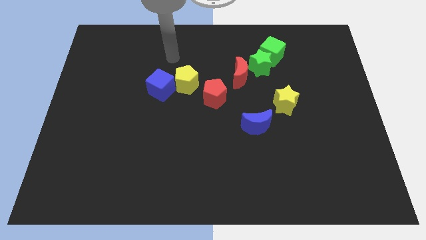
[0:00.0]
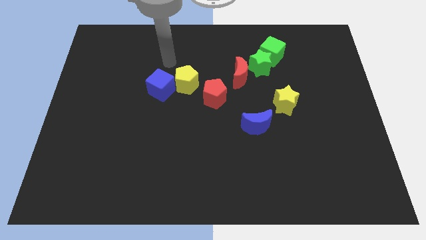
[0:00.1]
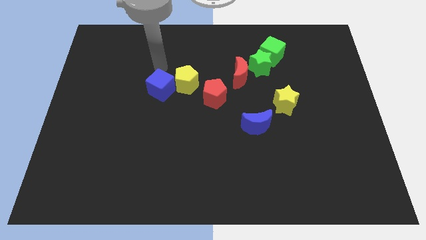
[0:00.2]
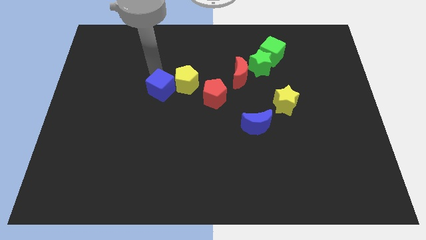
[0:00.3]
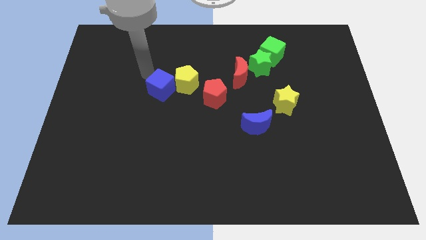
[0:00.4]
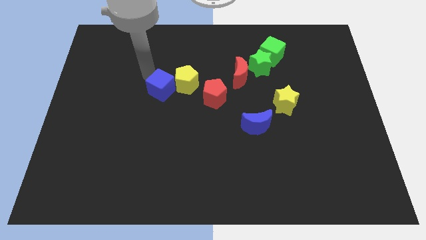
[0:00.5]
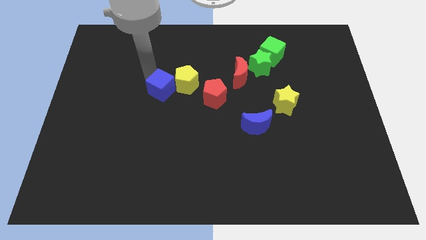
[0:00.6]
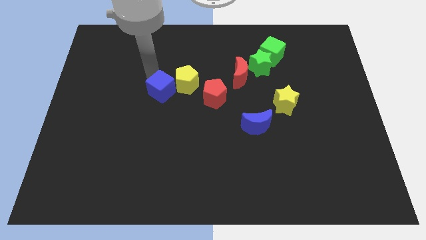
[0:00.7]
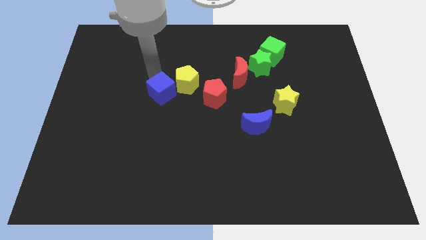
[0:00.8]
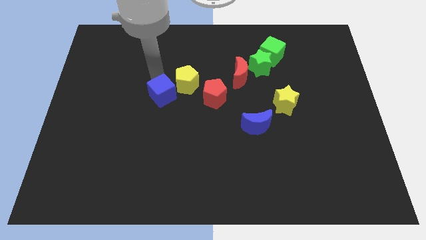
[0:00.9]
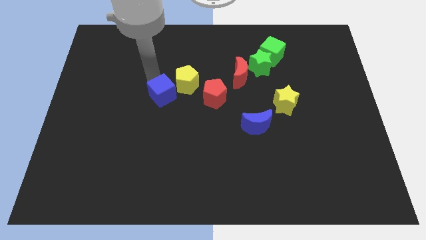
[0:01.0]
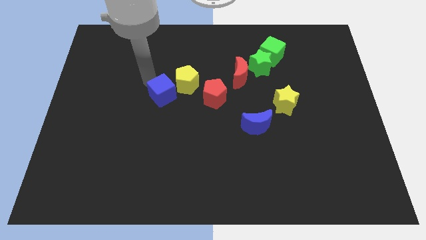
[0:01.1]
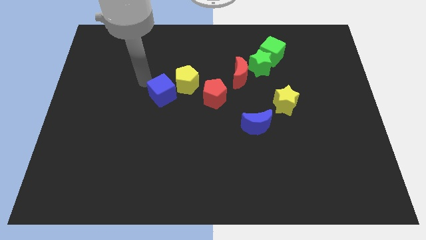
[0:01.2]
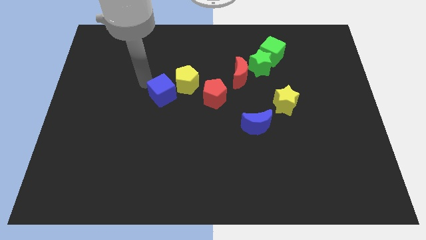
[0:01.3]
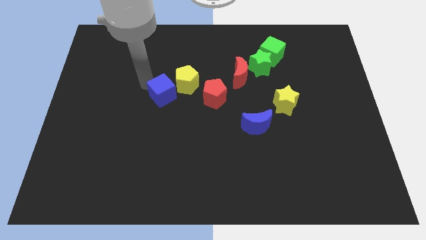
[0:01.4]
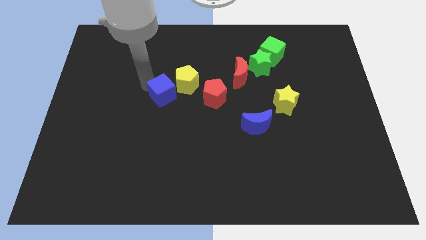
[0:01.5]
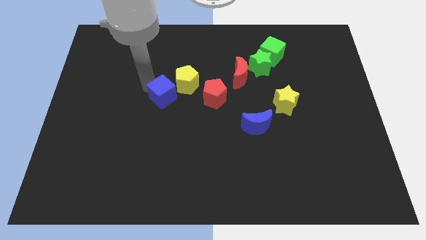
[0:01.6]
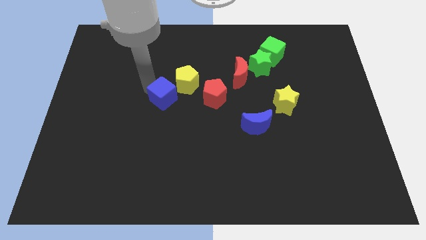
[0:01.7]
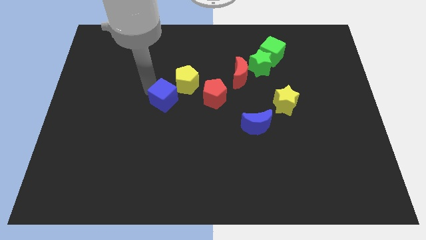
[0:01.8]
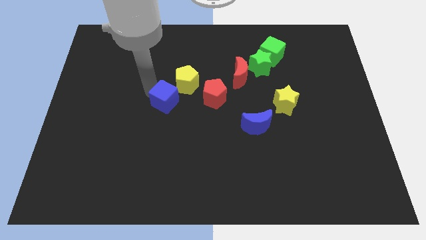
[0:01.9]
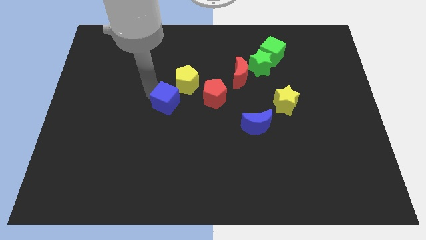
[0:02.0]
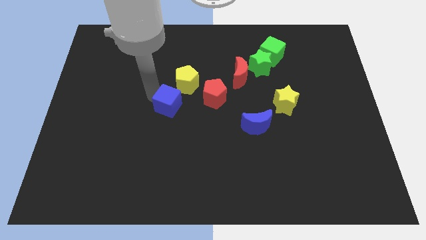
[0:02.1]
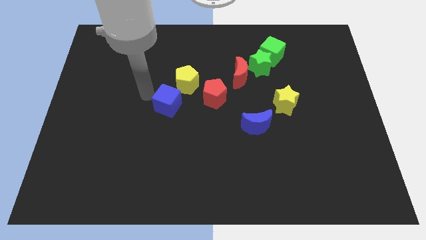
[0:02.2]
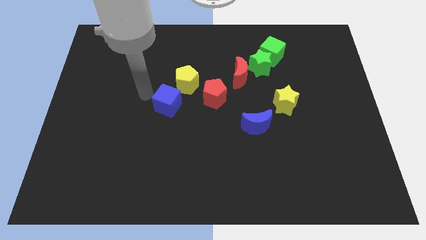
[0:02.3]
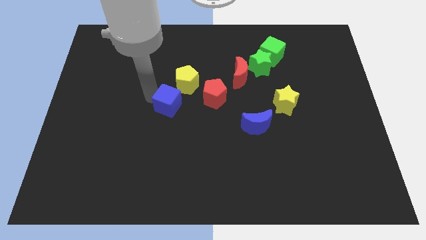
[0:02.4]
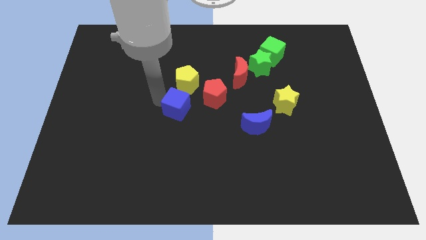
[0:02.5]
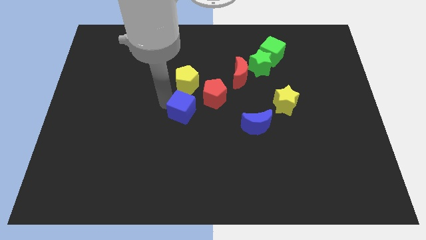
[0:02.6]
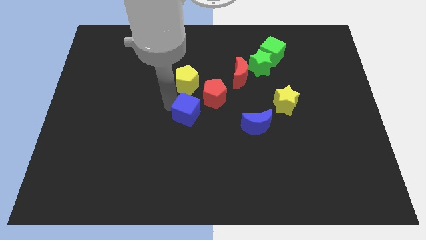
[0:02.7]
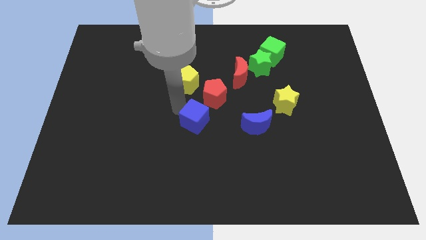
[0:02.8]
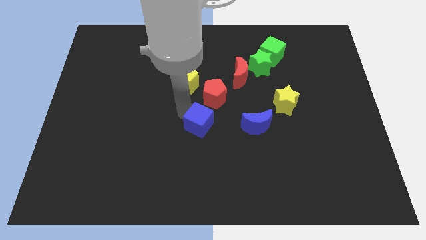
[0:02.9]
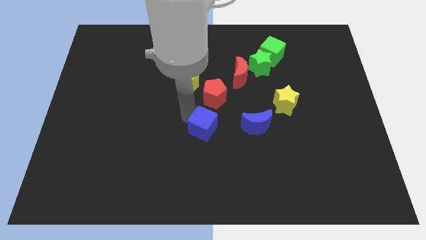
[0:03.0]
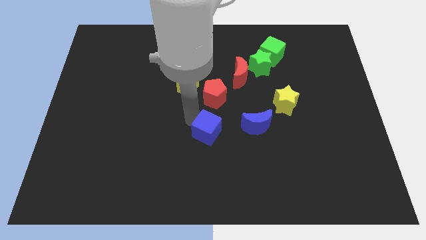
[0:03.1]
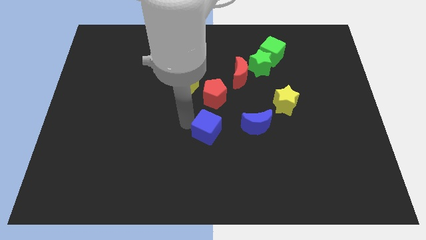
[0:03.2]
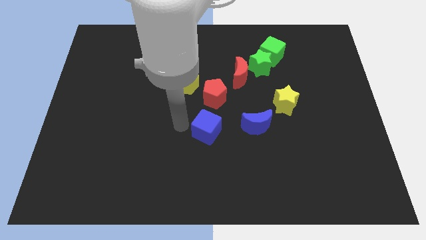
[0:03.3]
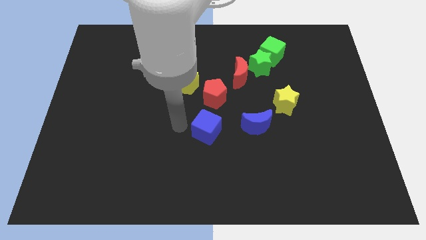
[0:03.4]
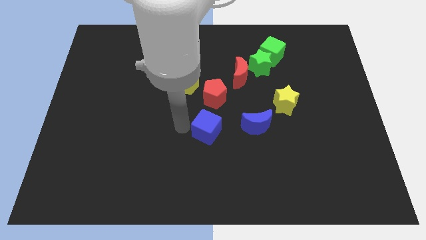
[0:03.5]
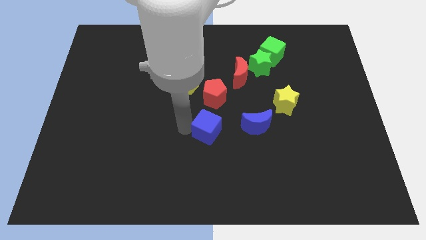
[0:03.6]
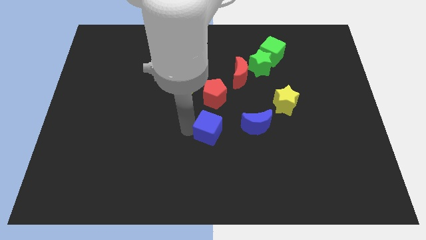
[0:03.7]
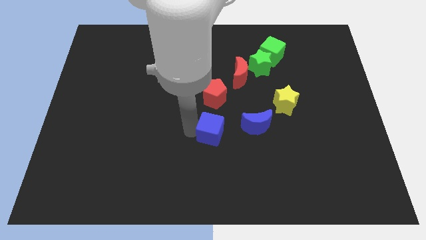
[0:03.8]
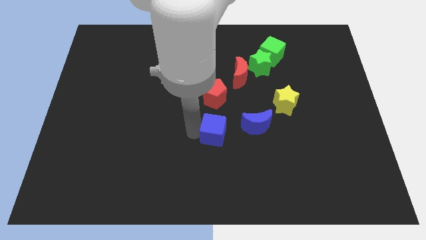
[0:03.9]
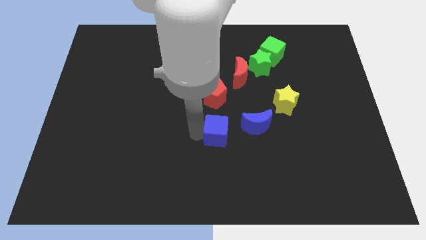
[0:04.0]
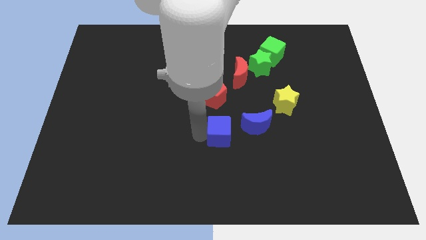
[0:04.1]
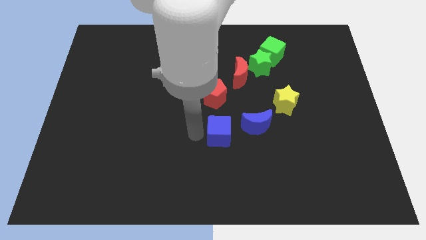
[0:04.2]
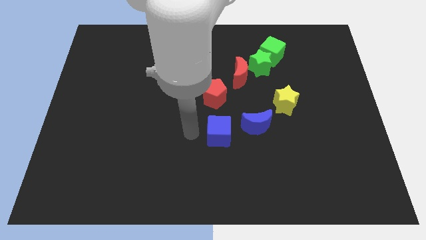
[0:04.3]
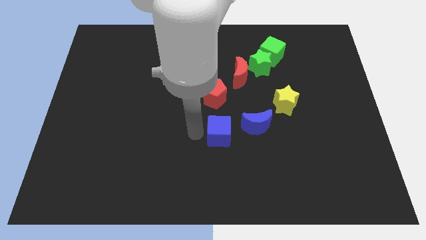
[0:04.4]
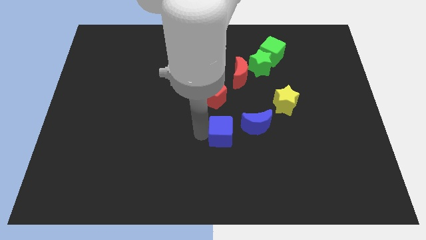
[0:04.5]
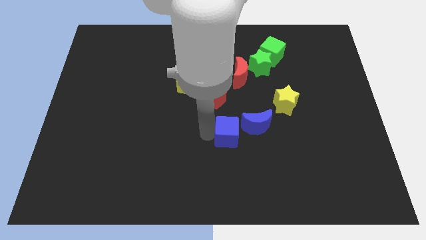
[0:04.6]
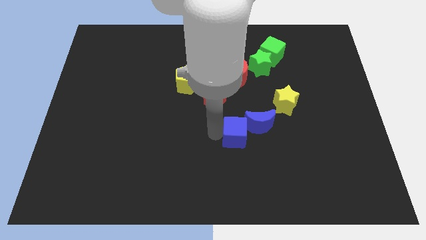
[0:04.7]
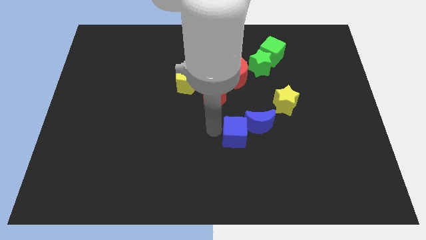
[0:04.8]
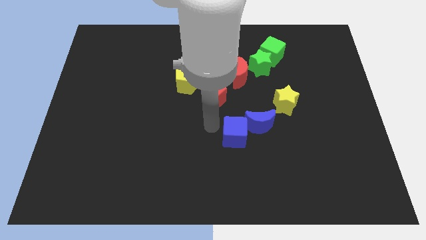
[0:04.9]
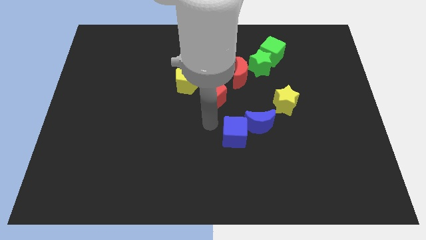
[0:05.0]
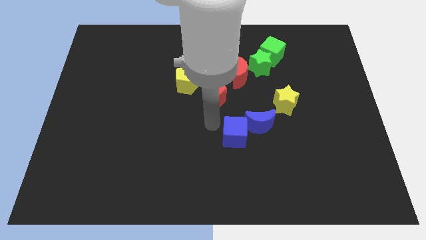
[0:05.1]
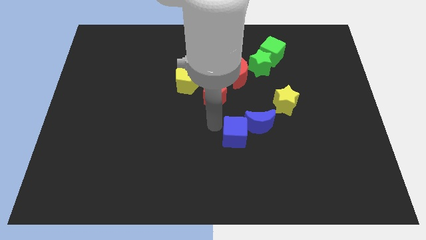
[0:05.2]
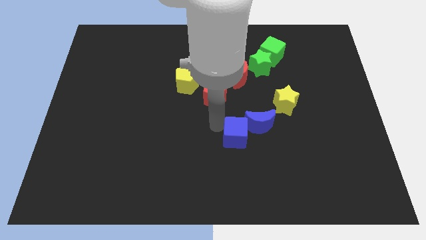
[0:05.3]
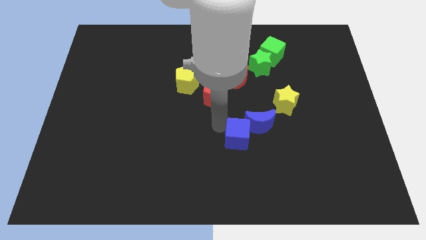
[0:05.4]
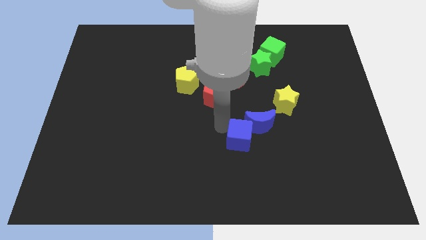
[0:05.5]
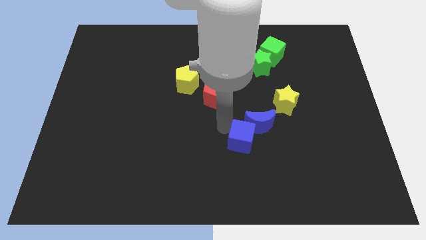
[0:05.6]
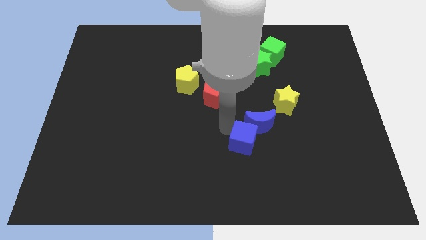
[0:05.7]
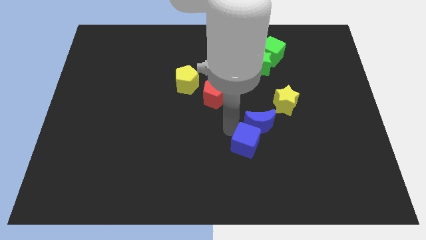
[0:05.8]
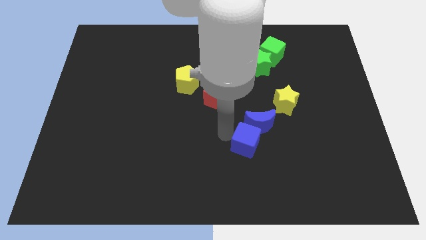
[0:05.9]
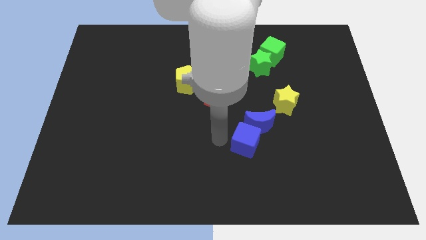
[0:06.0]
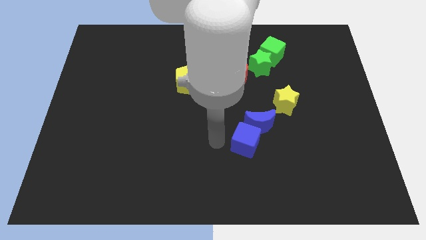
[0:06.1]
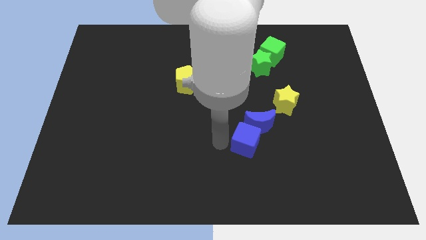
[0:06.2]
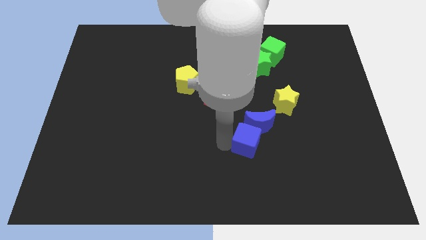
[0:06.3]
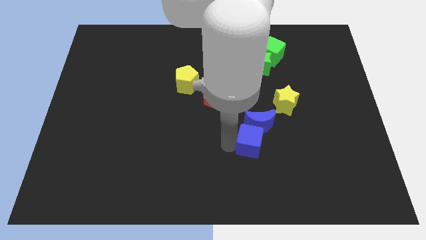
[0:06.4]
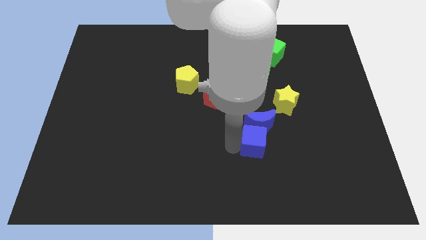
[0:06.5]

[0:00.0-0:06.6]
push the blue cube to the bottom right side of the blue moon

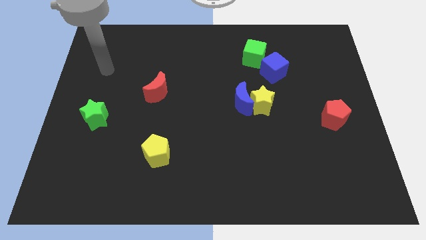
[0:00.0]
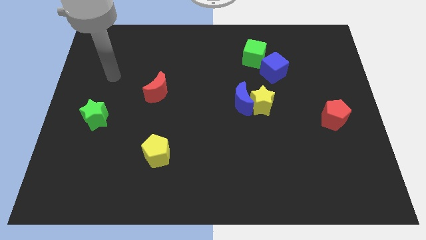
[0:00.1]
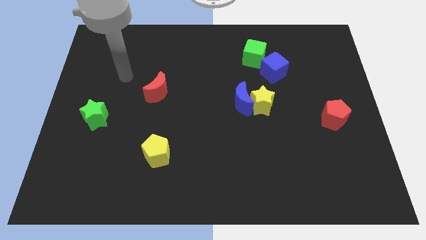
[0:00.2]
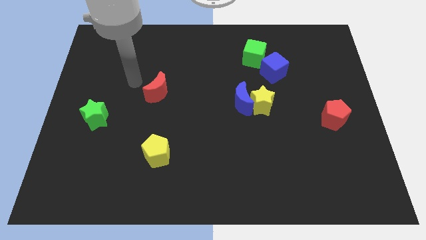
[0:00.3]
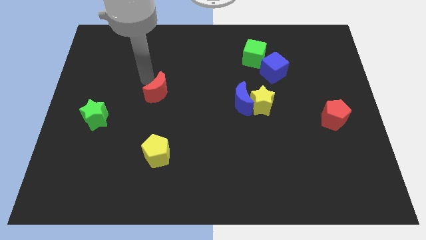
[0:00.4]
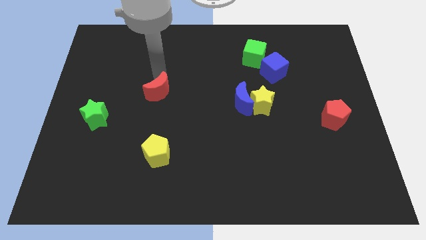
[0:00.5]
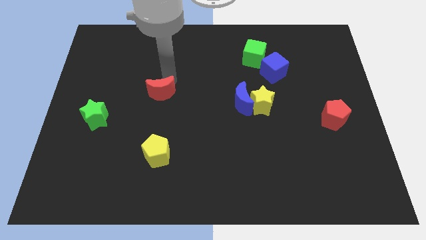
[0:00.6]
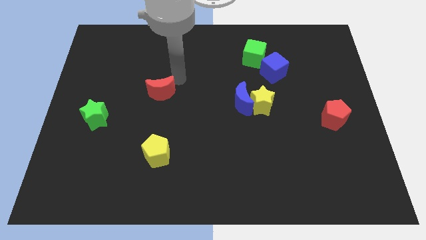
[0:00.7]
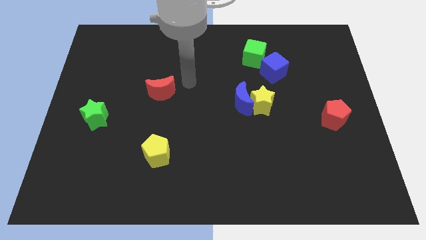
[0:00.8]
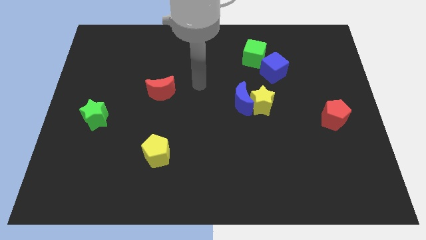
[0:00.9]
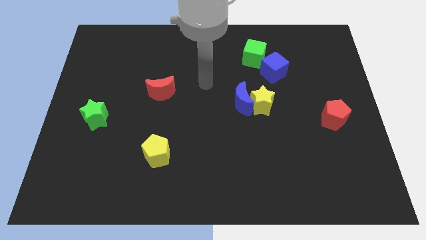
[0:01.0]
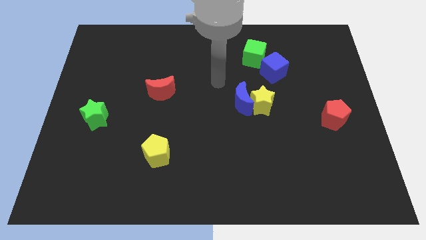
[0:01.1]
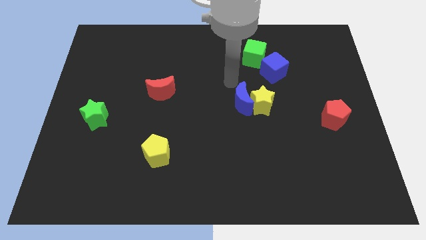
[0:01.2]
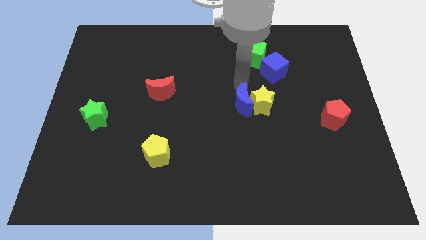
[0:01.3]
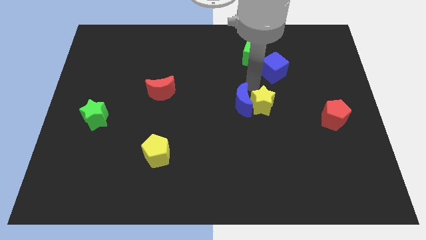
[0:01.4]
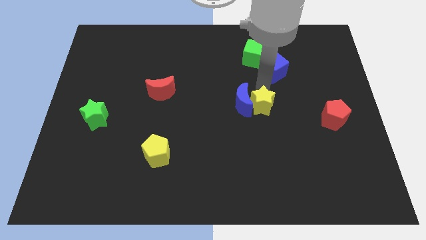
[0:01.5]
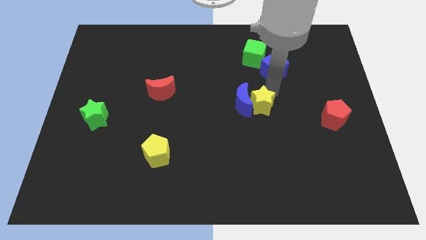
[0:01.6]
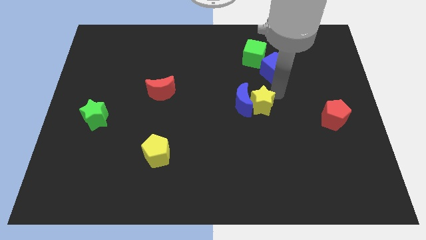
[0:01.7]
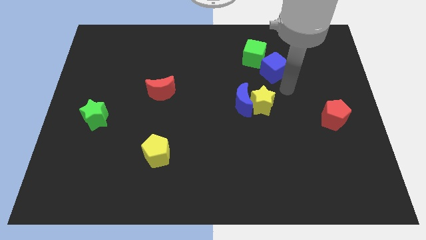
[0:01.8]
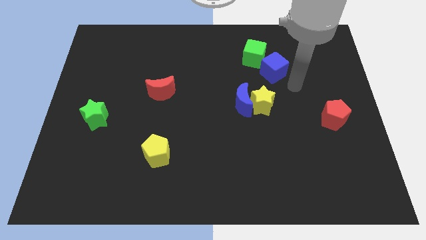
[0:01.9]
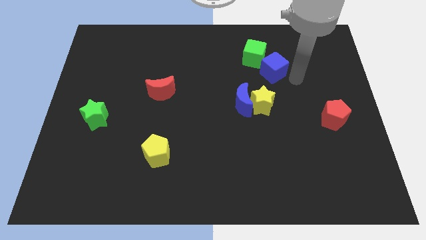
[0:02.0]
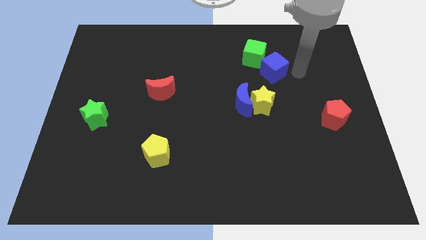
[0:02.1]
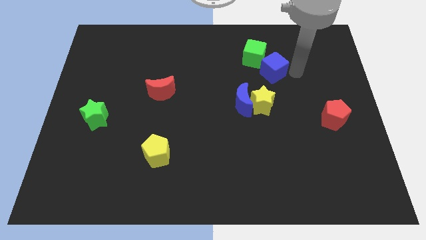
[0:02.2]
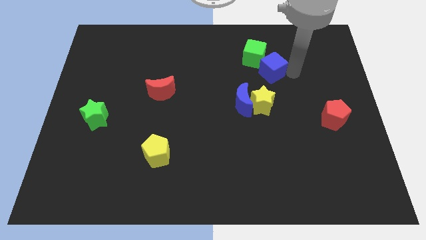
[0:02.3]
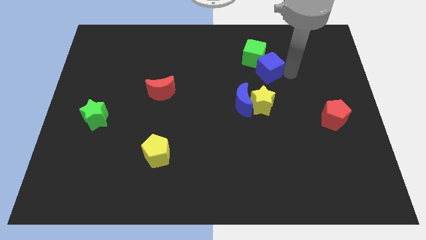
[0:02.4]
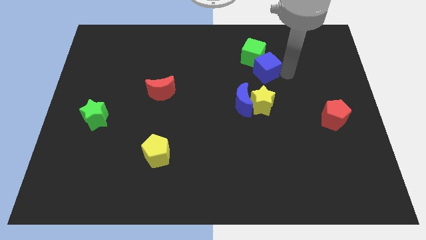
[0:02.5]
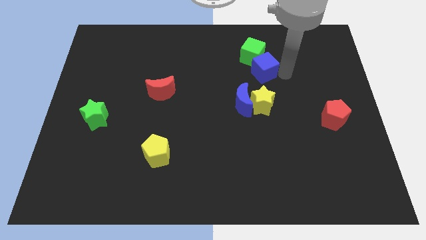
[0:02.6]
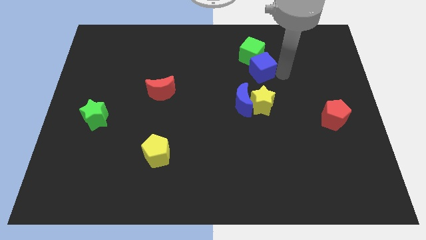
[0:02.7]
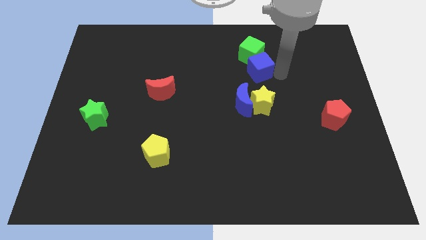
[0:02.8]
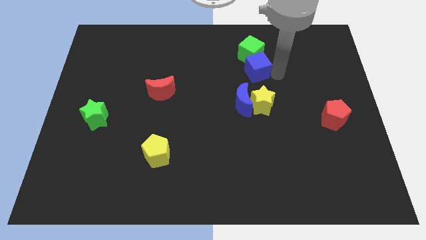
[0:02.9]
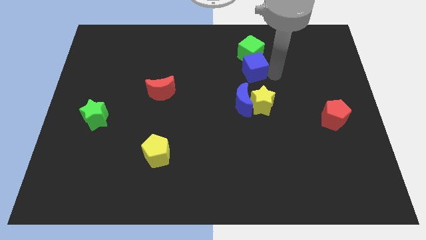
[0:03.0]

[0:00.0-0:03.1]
put the blue cube to the bottom left side of the green cube
